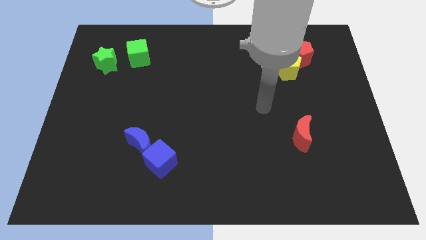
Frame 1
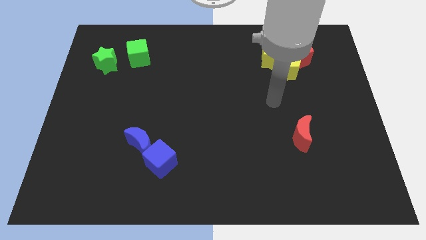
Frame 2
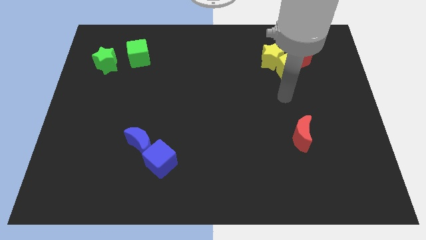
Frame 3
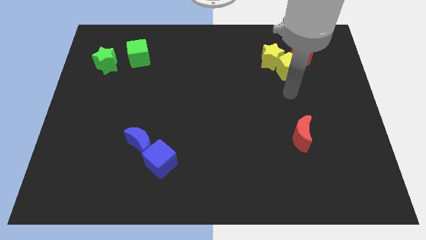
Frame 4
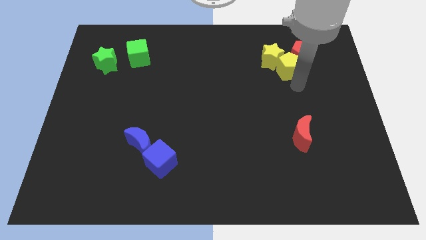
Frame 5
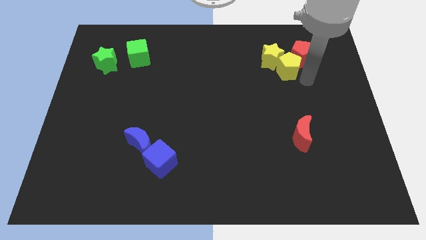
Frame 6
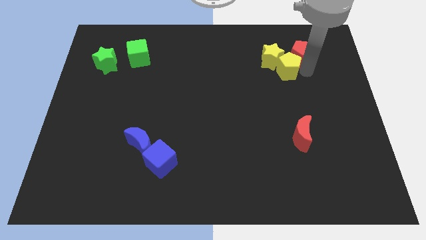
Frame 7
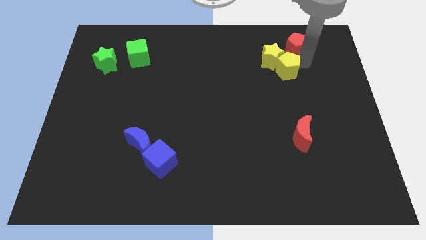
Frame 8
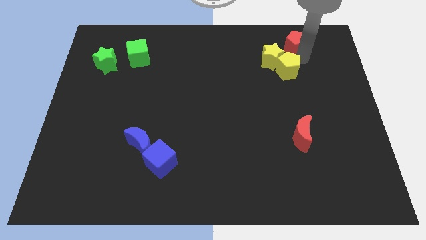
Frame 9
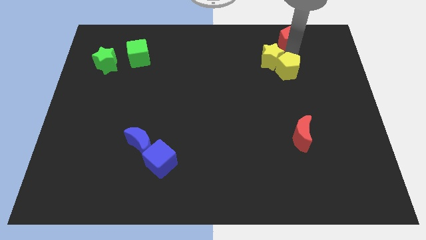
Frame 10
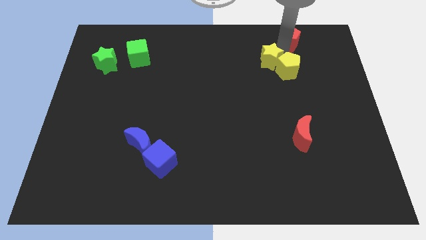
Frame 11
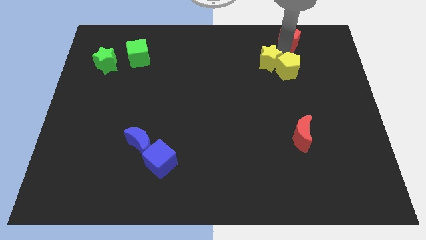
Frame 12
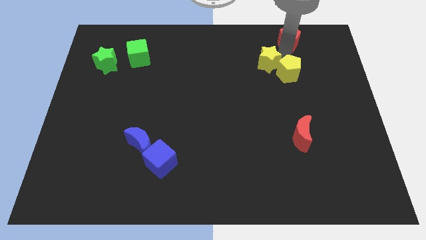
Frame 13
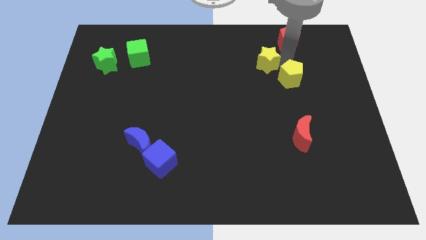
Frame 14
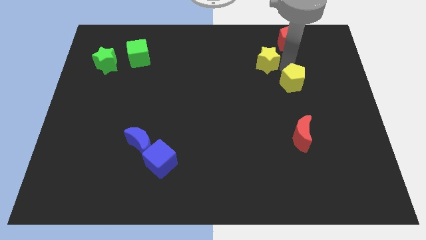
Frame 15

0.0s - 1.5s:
separate the yellow pentagon from the yellow star and red pentagon

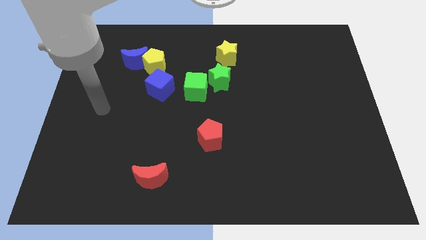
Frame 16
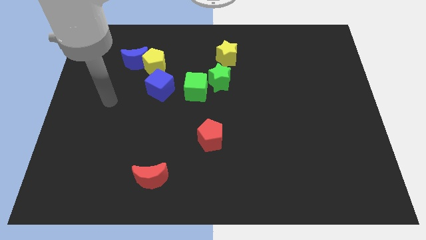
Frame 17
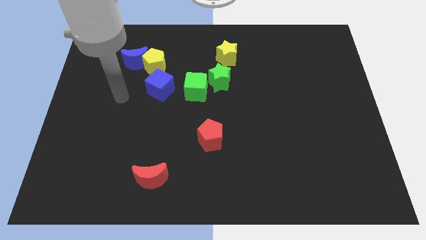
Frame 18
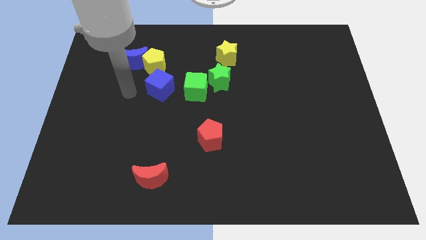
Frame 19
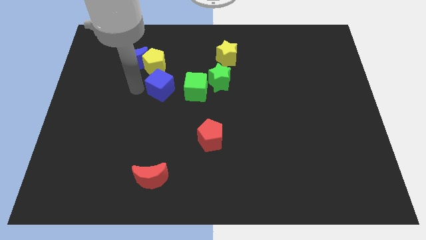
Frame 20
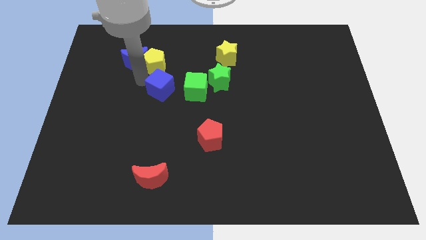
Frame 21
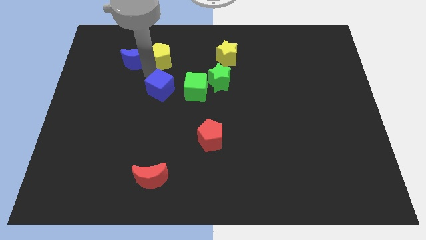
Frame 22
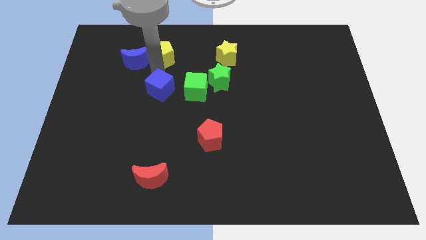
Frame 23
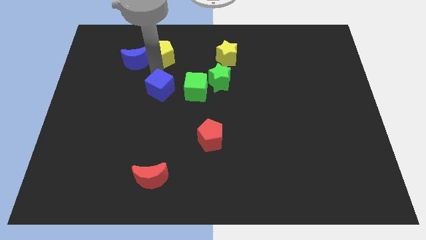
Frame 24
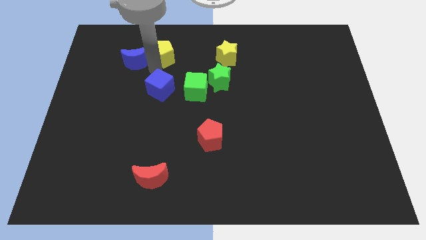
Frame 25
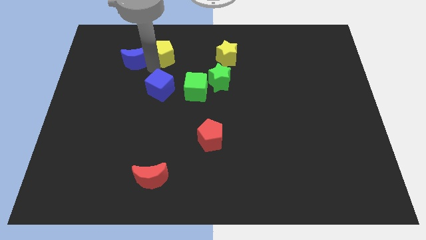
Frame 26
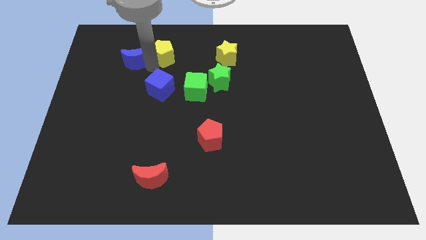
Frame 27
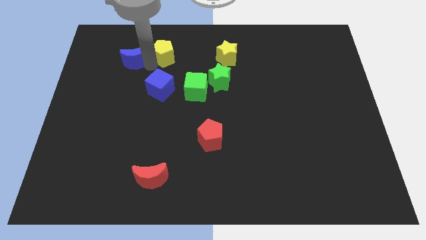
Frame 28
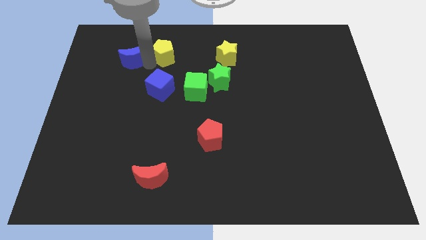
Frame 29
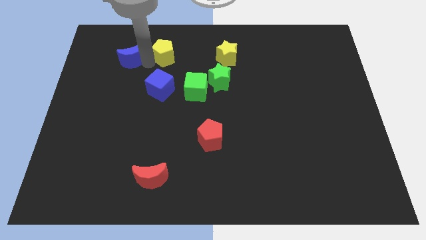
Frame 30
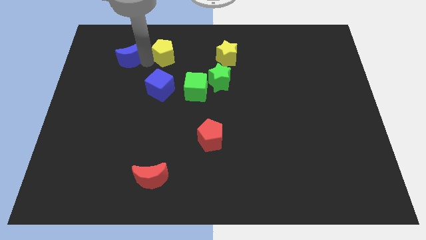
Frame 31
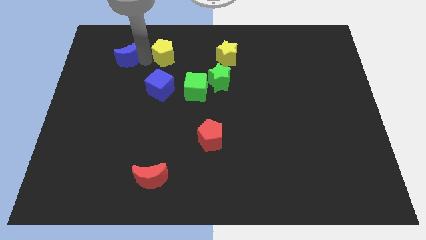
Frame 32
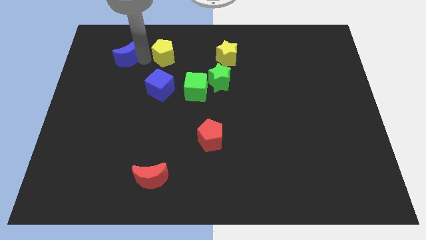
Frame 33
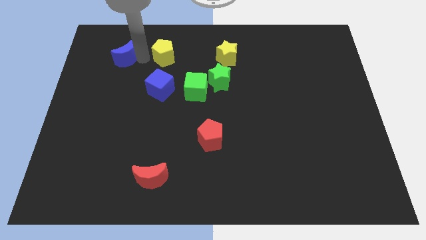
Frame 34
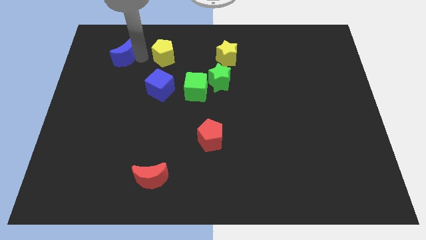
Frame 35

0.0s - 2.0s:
pull the blue moon apart from the yellow pentagon

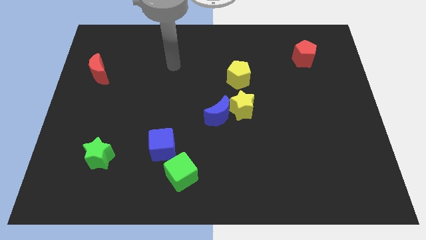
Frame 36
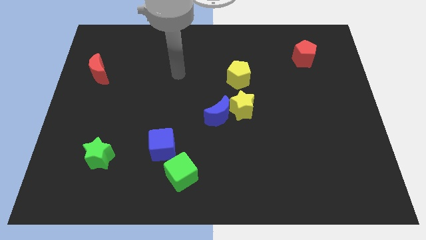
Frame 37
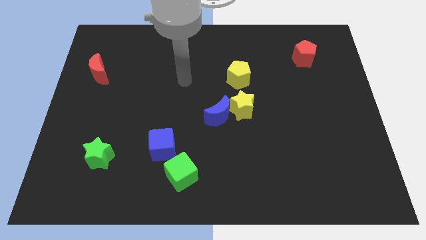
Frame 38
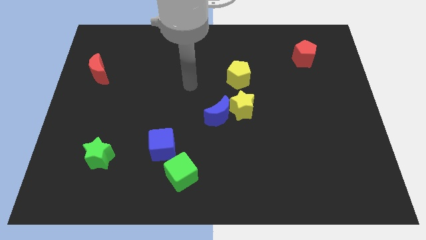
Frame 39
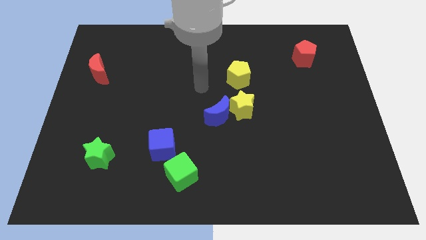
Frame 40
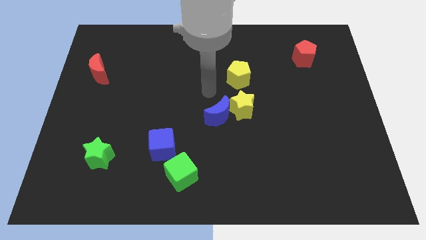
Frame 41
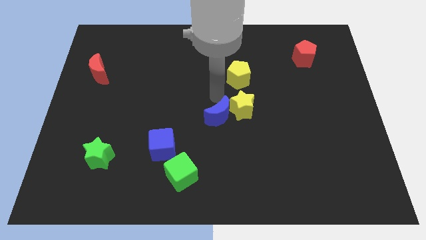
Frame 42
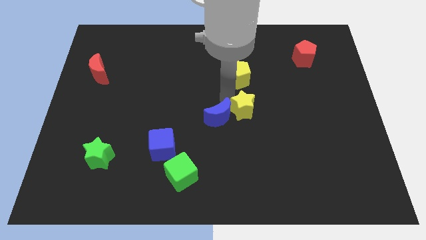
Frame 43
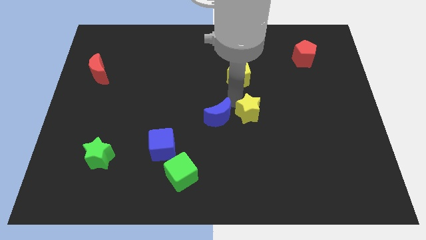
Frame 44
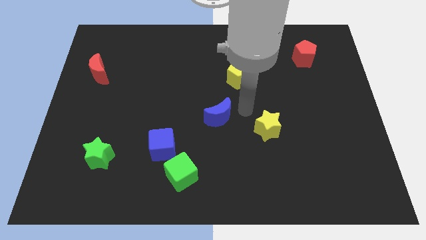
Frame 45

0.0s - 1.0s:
move the blue moon away from the yellow star

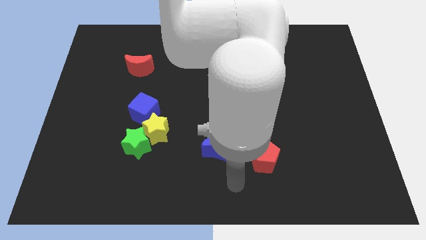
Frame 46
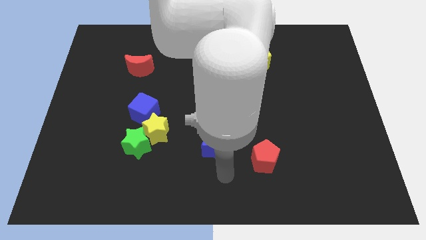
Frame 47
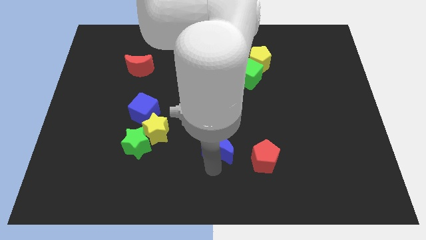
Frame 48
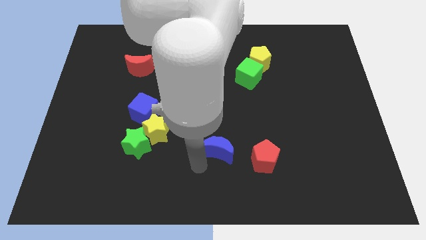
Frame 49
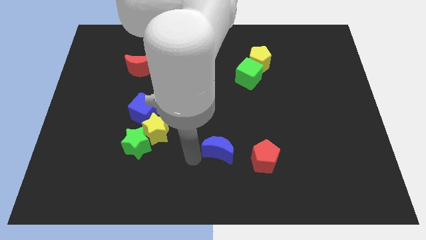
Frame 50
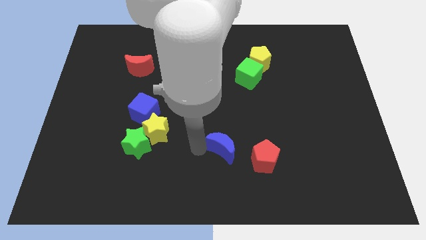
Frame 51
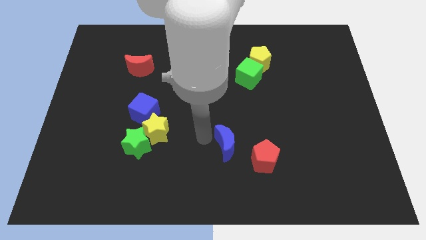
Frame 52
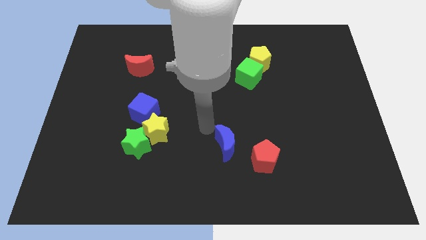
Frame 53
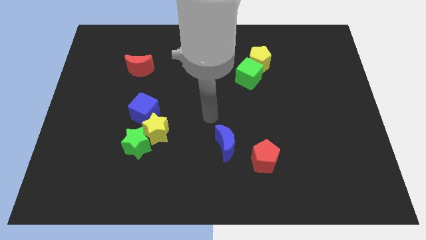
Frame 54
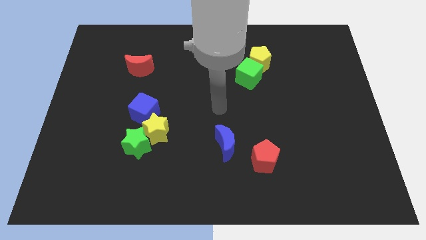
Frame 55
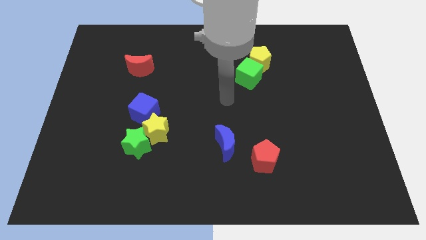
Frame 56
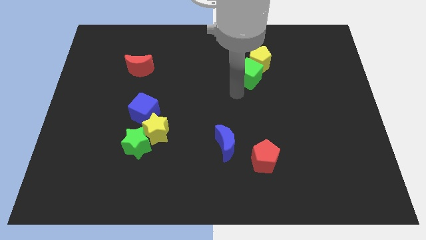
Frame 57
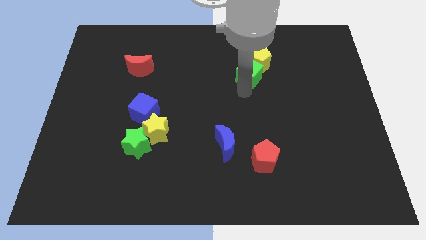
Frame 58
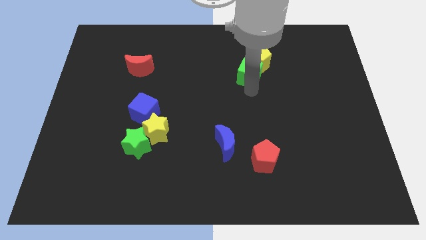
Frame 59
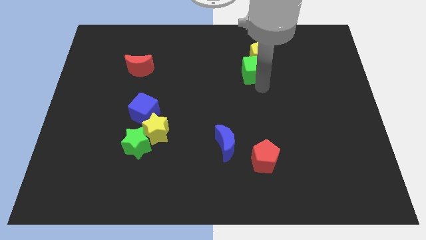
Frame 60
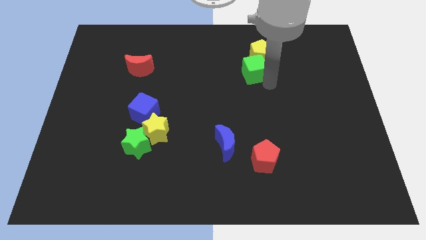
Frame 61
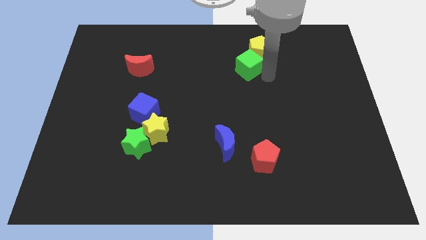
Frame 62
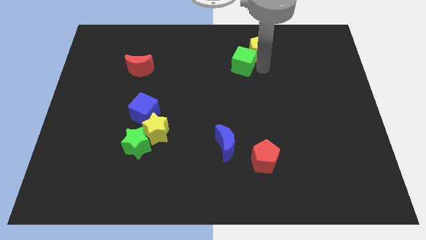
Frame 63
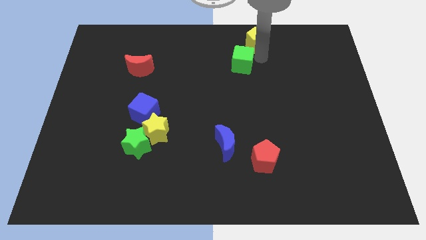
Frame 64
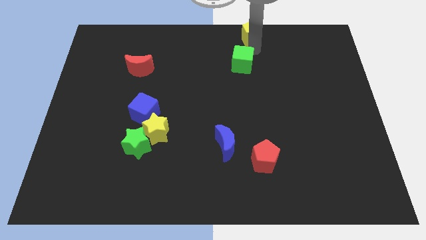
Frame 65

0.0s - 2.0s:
pull the green cube apart from the yellow pentagon

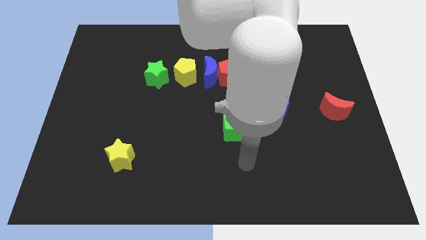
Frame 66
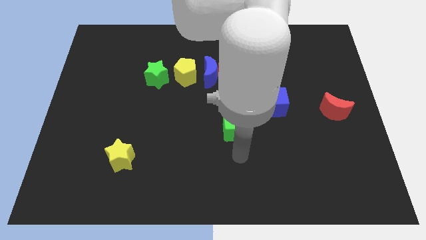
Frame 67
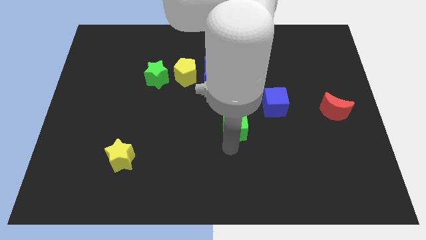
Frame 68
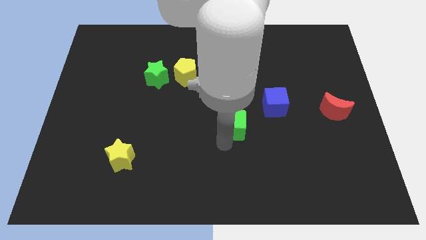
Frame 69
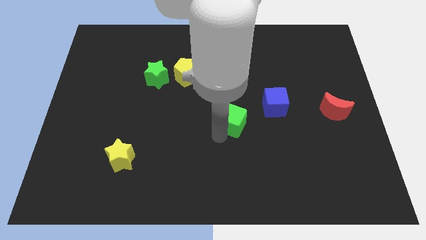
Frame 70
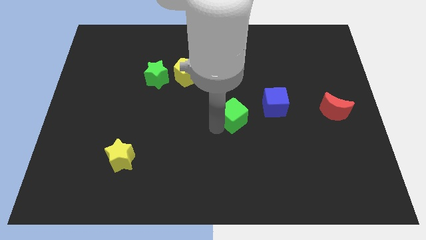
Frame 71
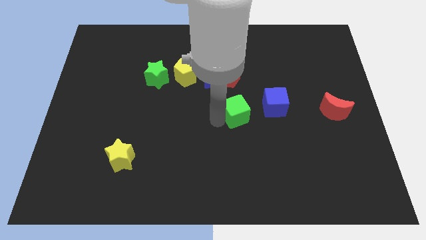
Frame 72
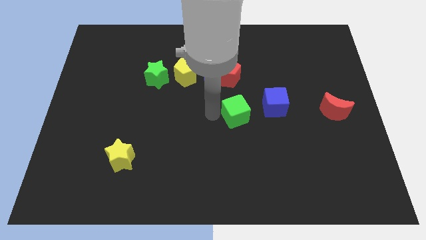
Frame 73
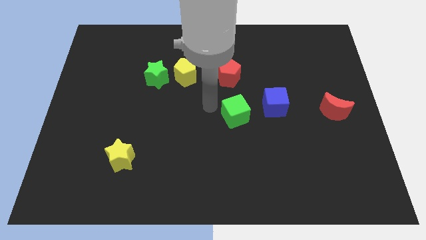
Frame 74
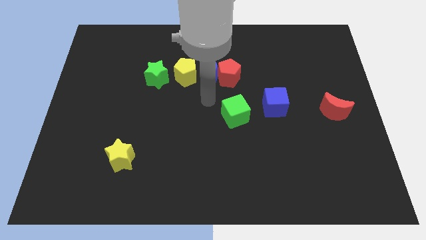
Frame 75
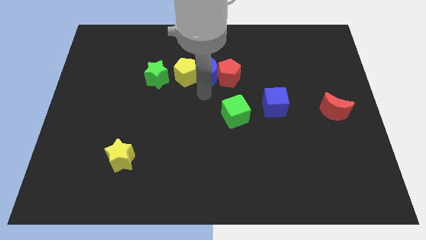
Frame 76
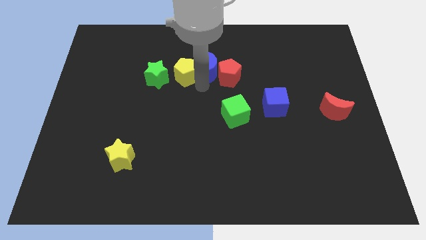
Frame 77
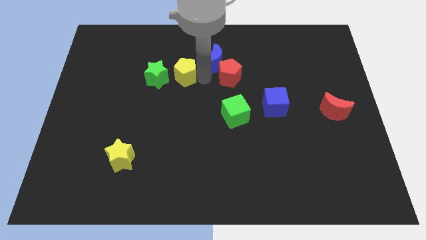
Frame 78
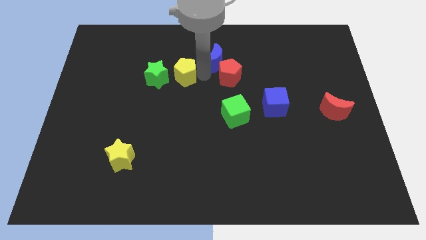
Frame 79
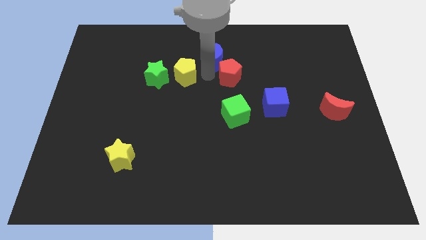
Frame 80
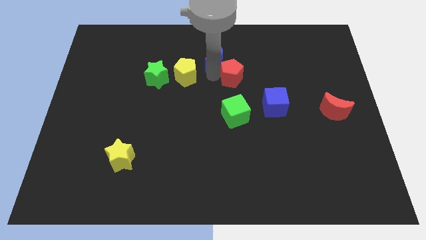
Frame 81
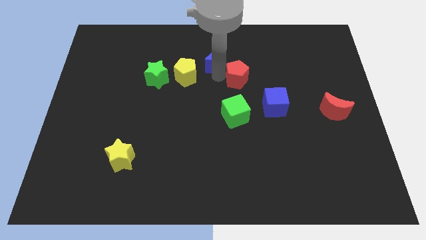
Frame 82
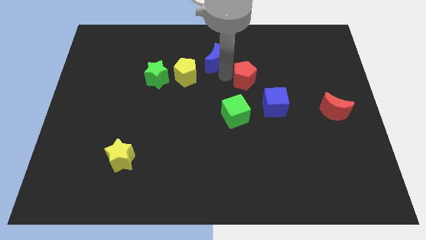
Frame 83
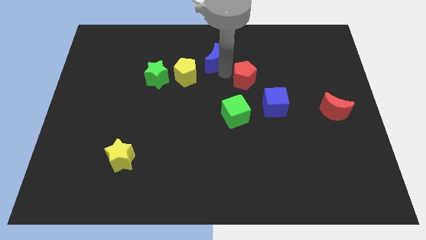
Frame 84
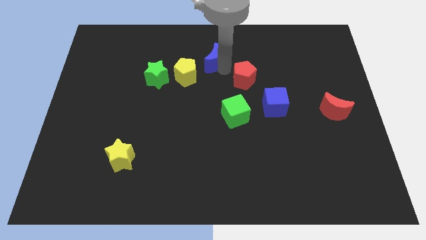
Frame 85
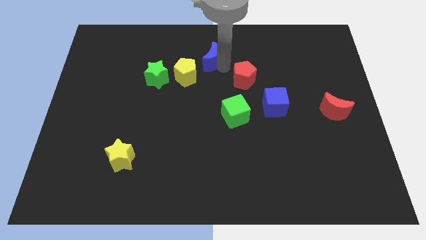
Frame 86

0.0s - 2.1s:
pull the red pentagon apart from the blue moon
